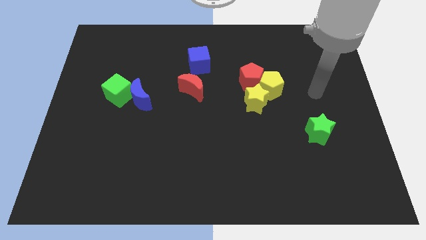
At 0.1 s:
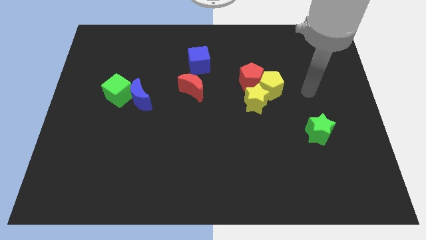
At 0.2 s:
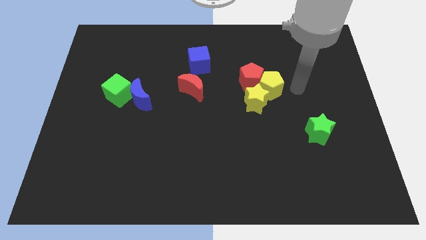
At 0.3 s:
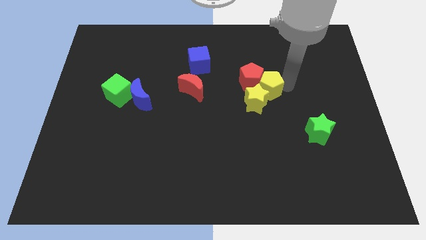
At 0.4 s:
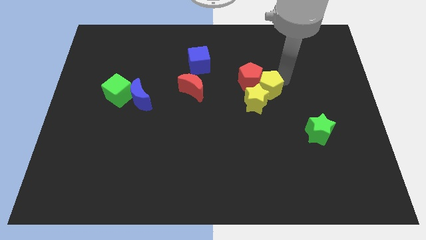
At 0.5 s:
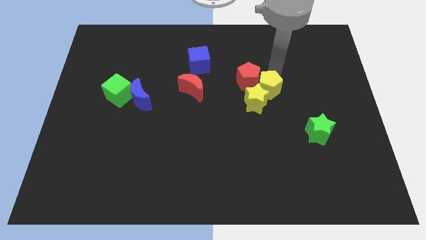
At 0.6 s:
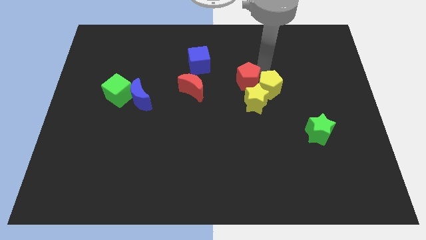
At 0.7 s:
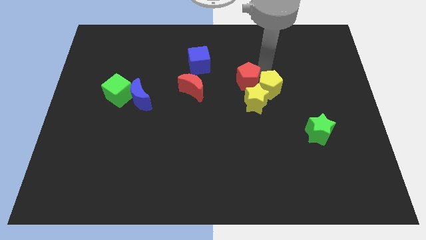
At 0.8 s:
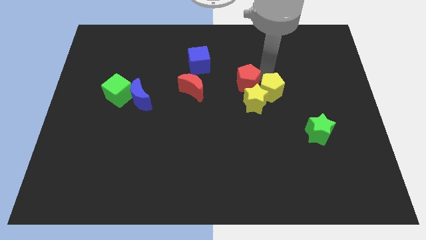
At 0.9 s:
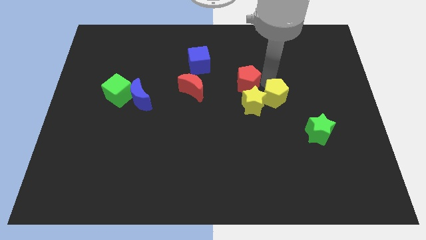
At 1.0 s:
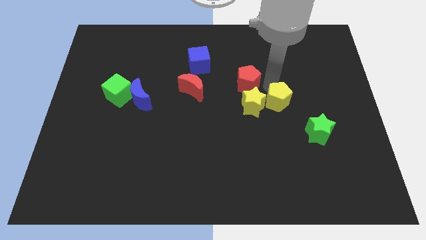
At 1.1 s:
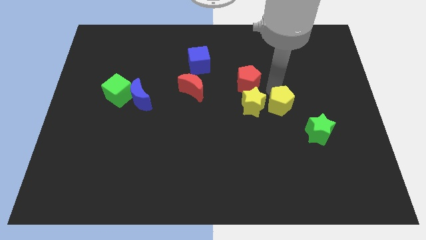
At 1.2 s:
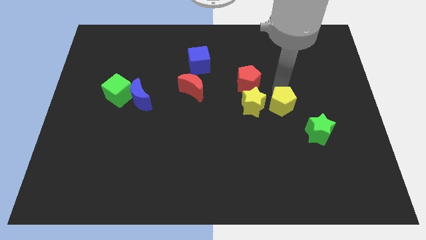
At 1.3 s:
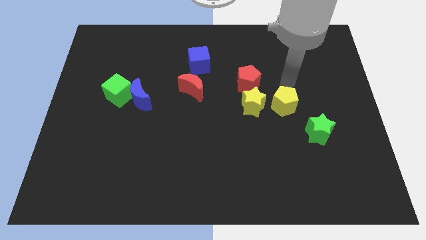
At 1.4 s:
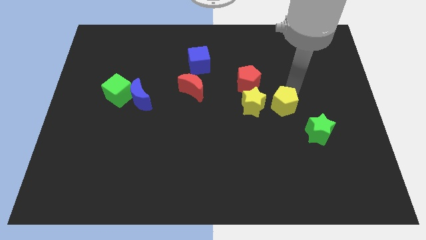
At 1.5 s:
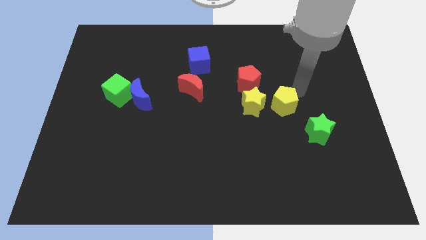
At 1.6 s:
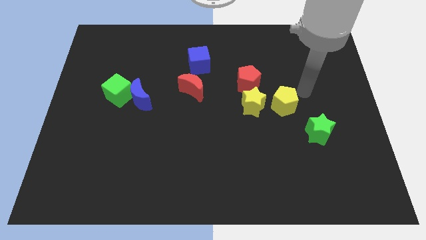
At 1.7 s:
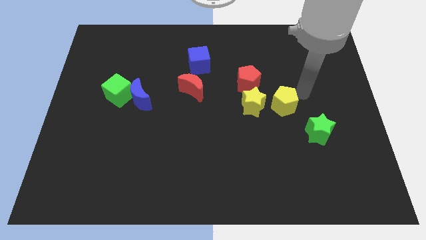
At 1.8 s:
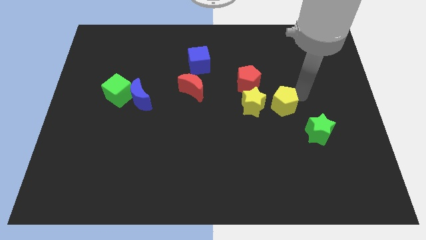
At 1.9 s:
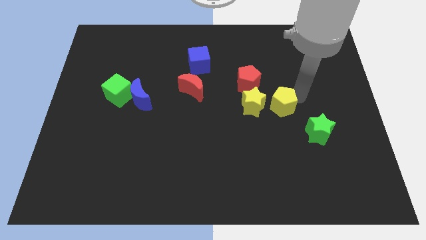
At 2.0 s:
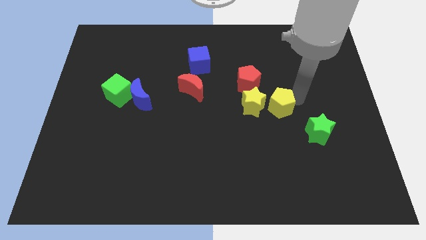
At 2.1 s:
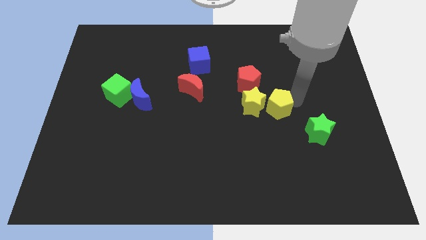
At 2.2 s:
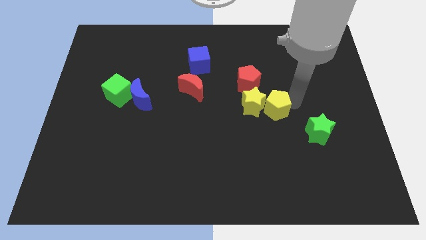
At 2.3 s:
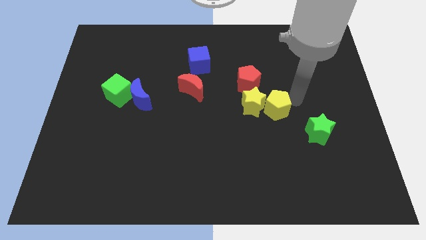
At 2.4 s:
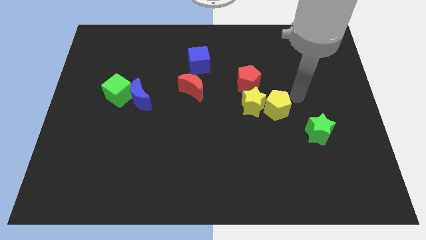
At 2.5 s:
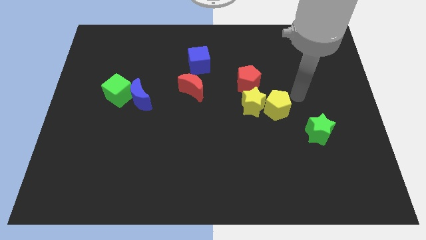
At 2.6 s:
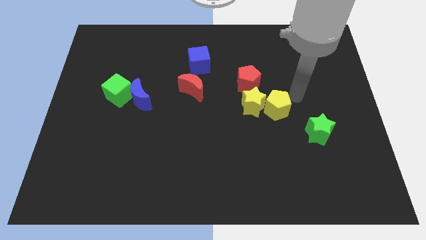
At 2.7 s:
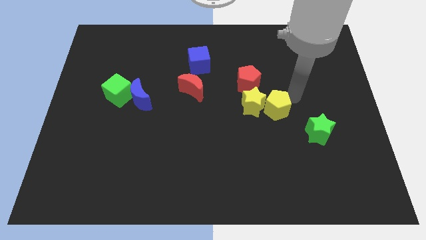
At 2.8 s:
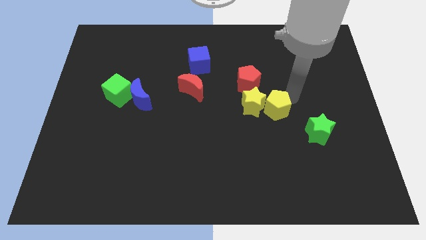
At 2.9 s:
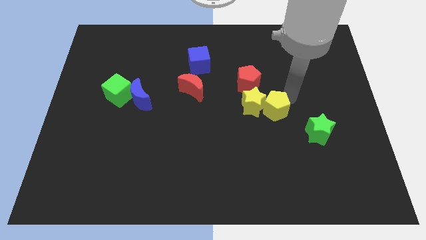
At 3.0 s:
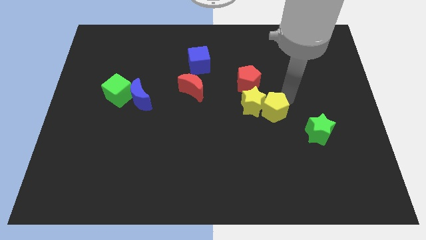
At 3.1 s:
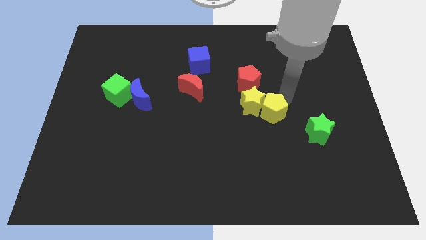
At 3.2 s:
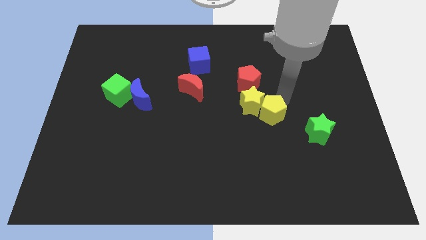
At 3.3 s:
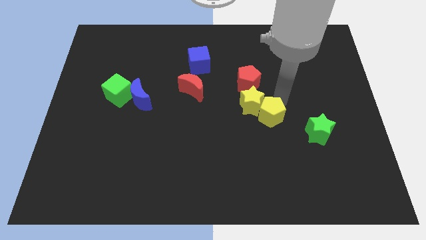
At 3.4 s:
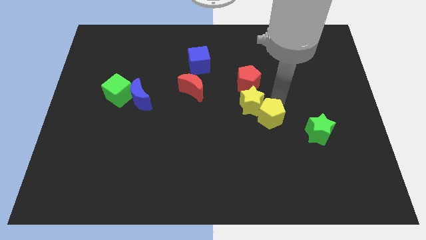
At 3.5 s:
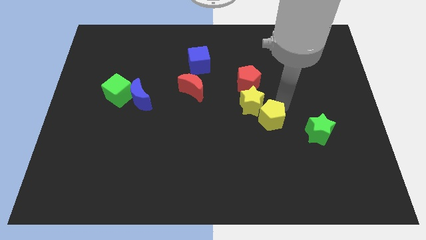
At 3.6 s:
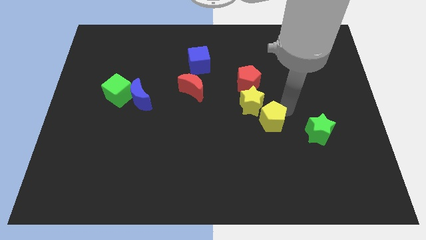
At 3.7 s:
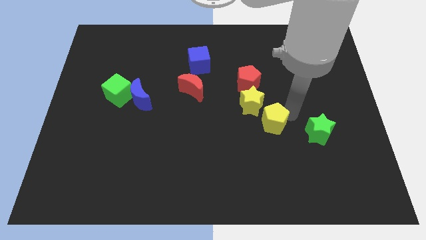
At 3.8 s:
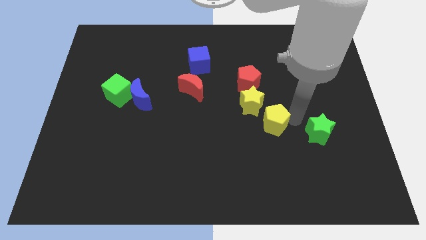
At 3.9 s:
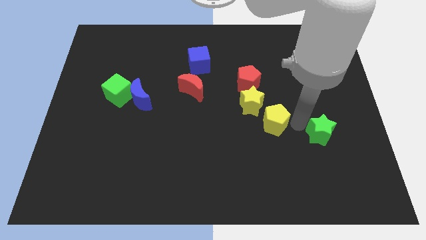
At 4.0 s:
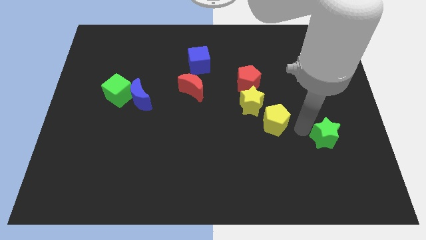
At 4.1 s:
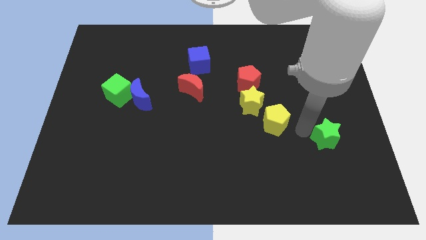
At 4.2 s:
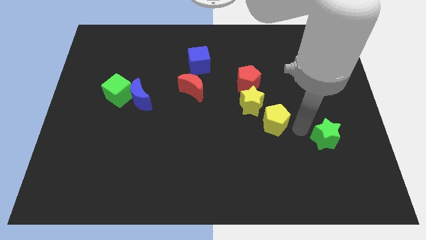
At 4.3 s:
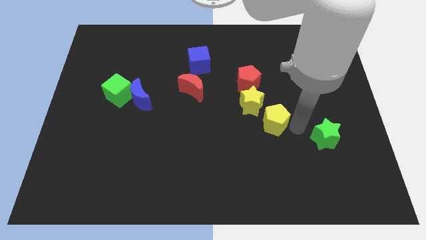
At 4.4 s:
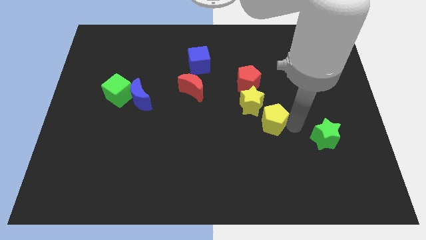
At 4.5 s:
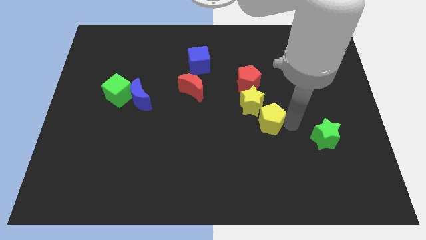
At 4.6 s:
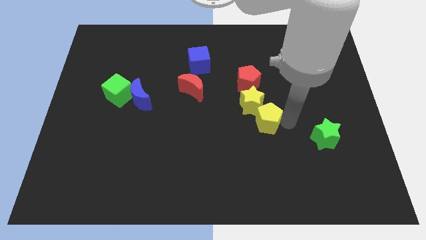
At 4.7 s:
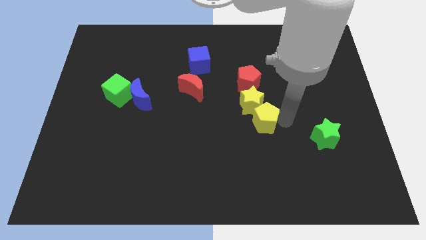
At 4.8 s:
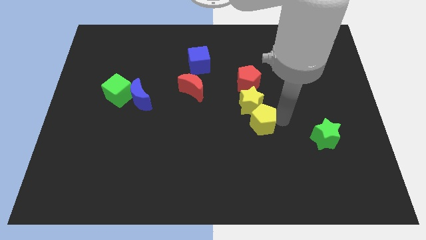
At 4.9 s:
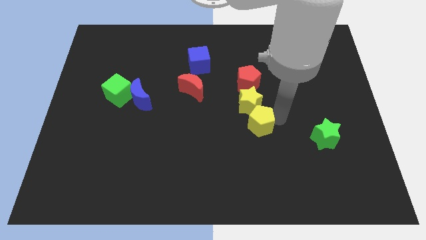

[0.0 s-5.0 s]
put the yellow pentagon to the center

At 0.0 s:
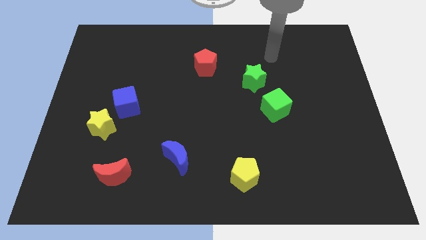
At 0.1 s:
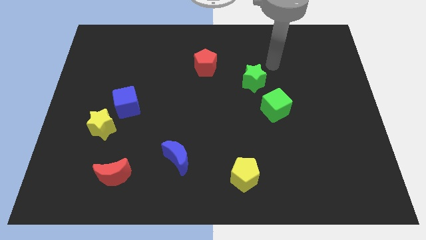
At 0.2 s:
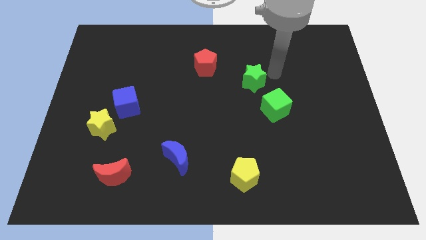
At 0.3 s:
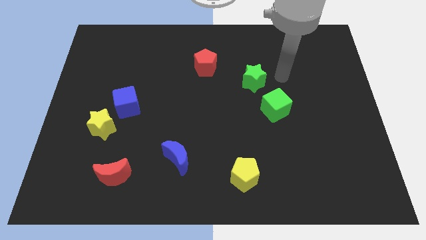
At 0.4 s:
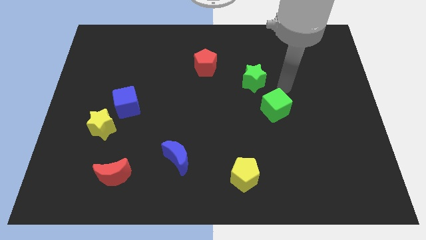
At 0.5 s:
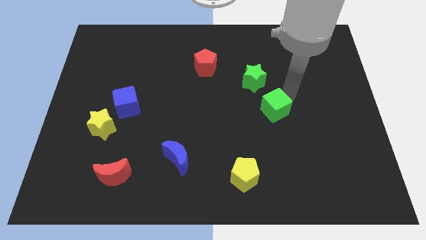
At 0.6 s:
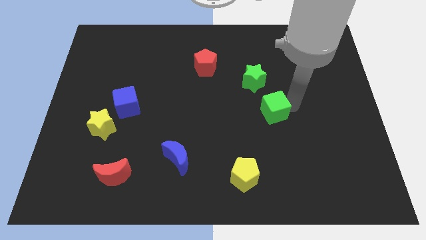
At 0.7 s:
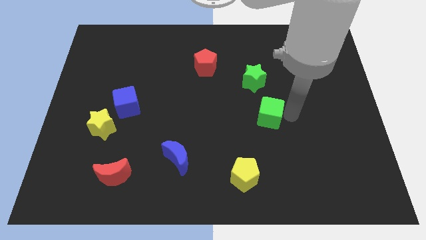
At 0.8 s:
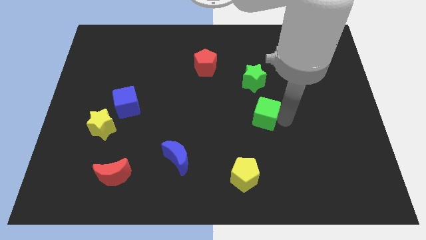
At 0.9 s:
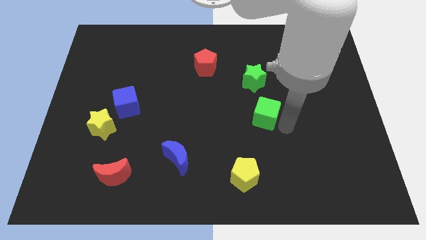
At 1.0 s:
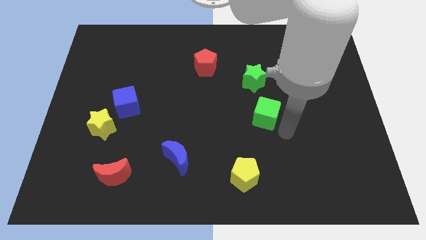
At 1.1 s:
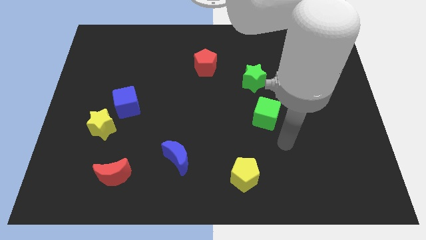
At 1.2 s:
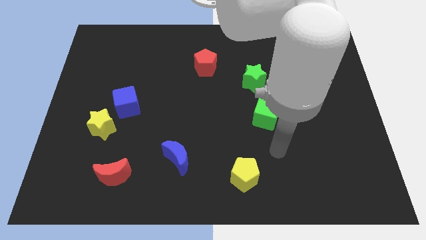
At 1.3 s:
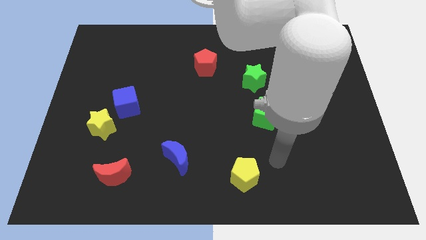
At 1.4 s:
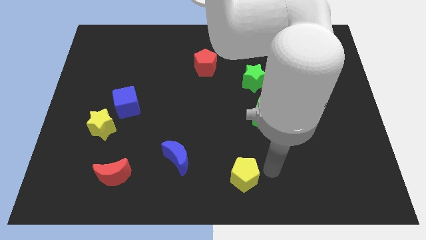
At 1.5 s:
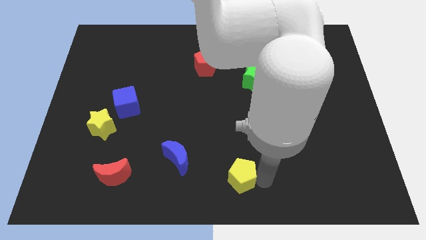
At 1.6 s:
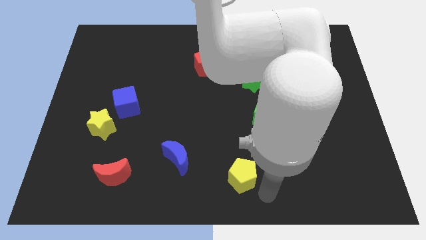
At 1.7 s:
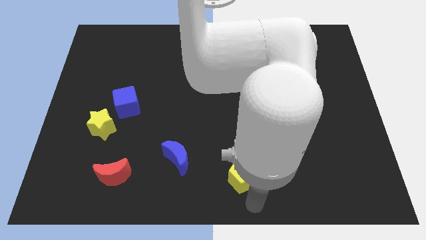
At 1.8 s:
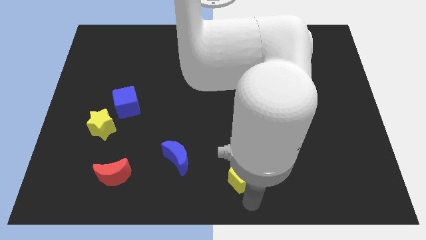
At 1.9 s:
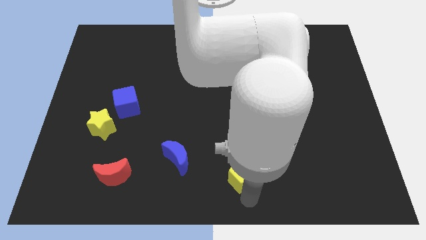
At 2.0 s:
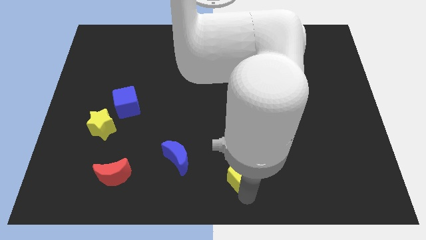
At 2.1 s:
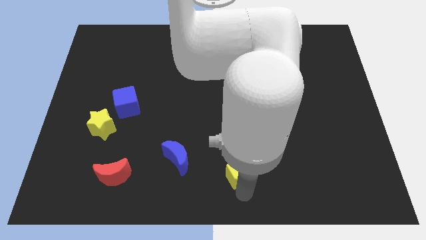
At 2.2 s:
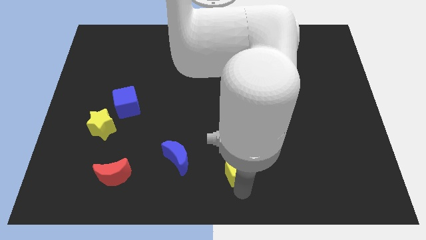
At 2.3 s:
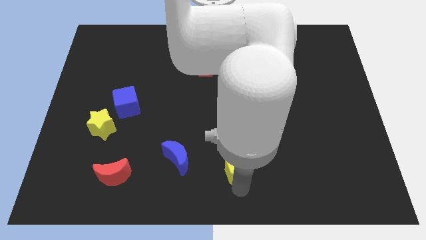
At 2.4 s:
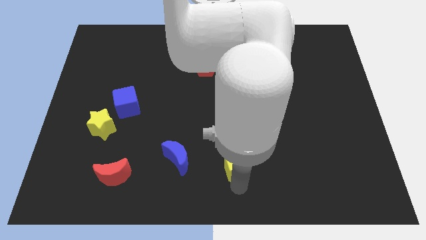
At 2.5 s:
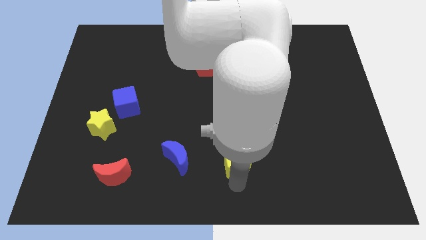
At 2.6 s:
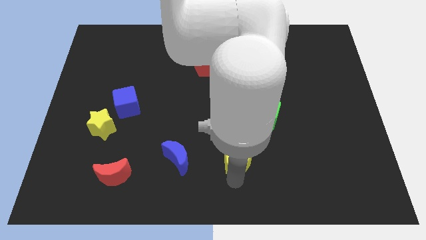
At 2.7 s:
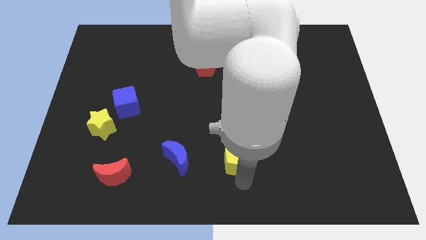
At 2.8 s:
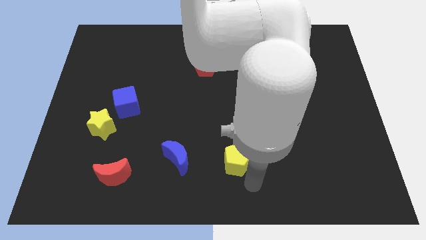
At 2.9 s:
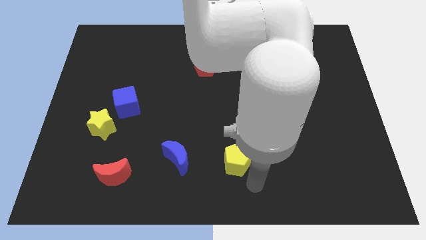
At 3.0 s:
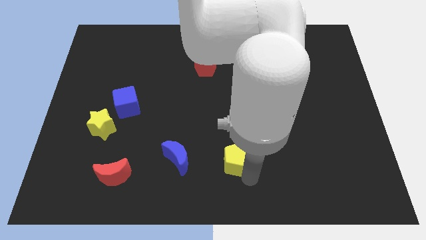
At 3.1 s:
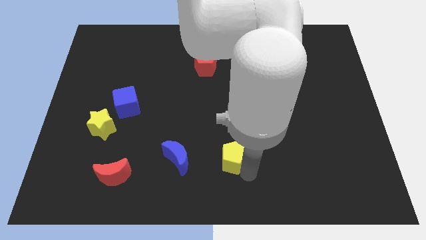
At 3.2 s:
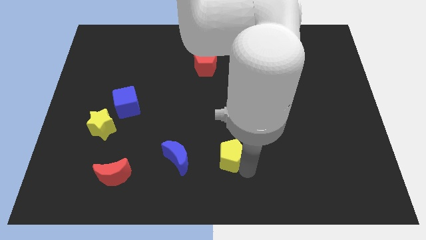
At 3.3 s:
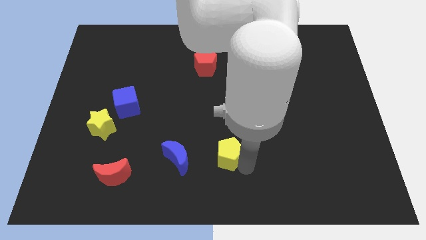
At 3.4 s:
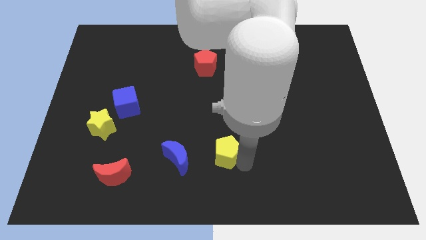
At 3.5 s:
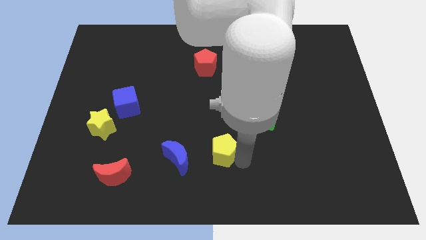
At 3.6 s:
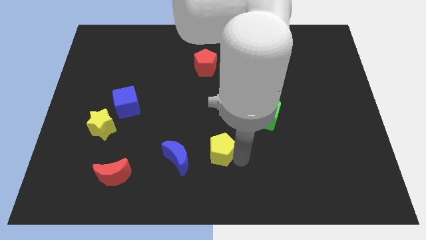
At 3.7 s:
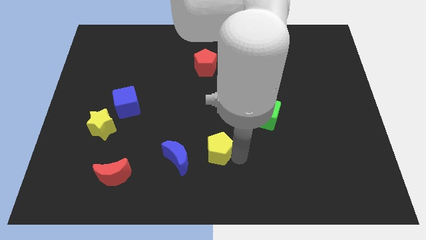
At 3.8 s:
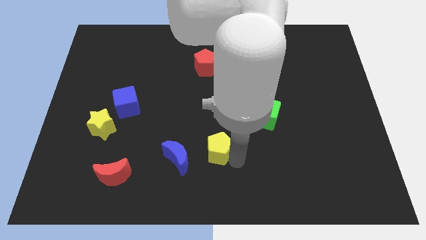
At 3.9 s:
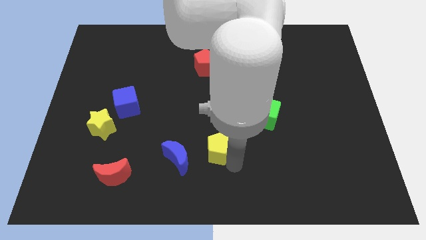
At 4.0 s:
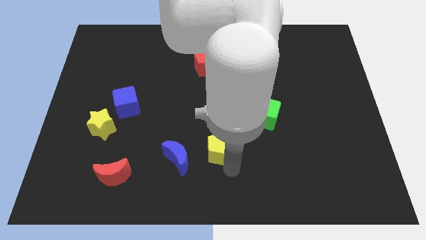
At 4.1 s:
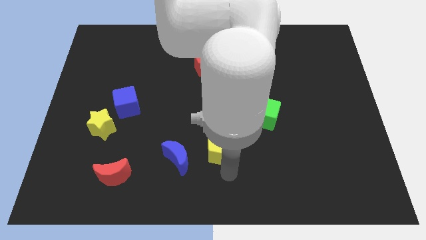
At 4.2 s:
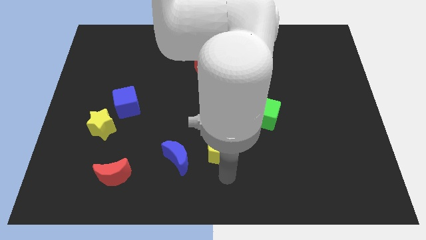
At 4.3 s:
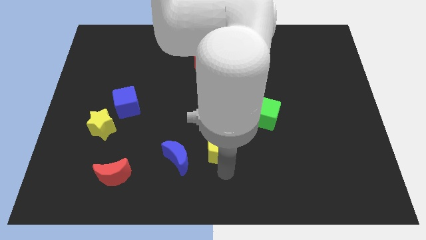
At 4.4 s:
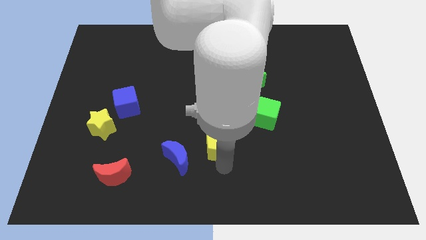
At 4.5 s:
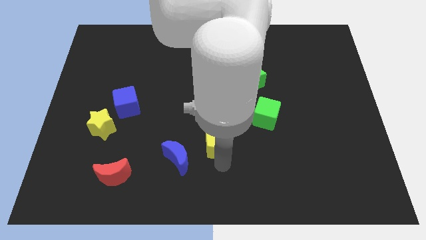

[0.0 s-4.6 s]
slide the yellow pentagon to the center of the board
